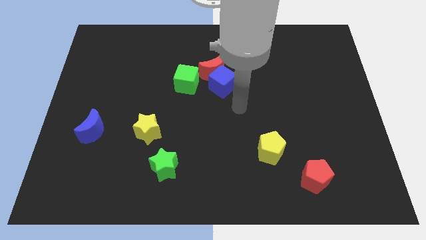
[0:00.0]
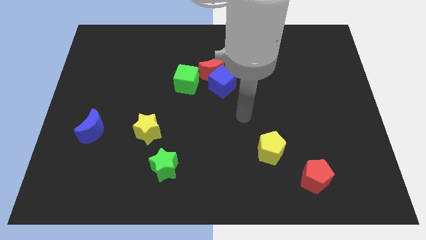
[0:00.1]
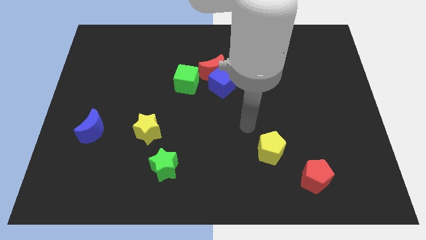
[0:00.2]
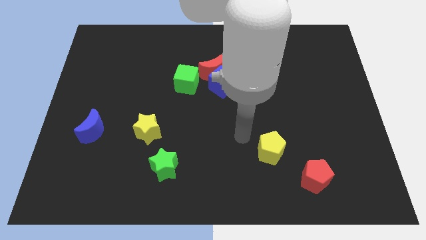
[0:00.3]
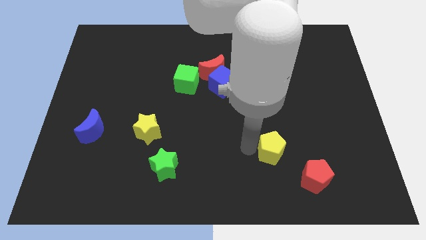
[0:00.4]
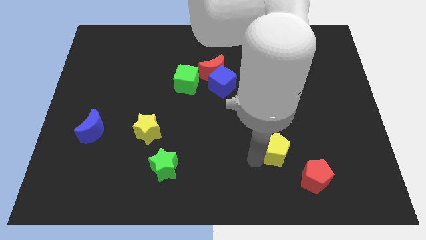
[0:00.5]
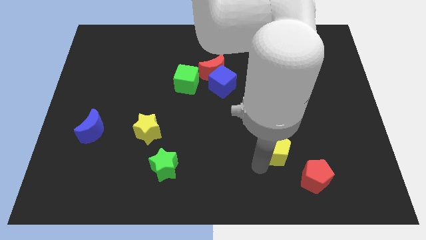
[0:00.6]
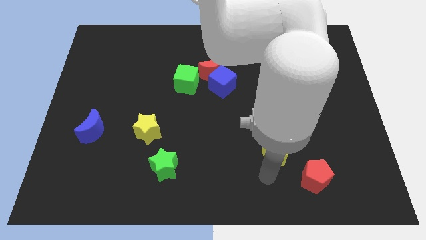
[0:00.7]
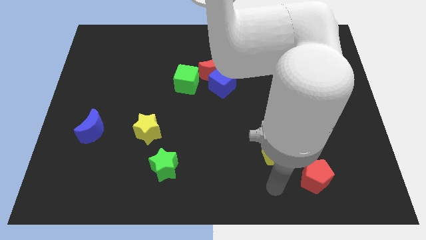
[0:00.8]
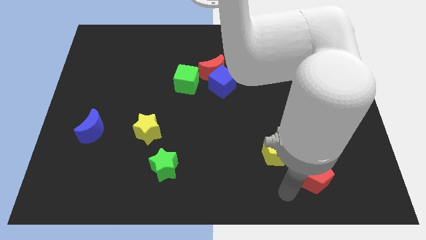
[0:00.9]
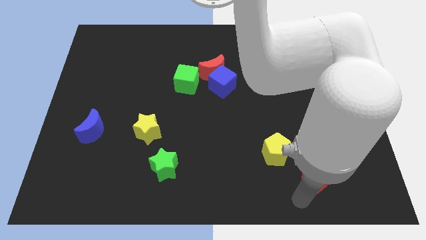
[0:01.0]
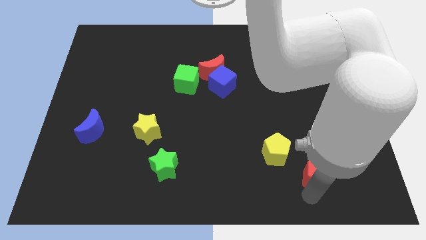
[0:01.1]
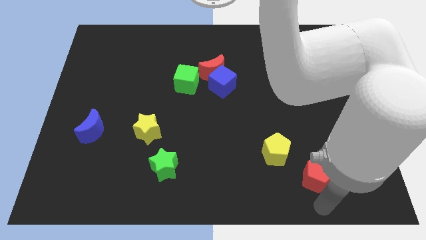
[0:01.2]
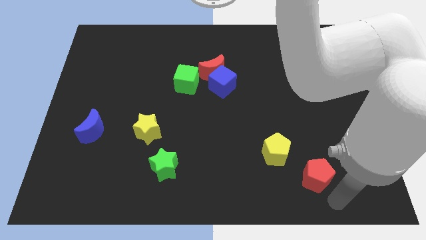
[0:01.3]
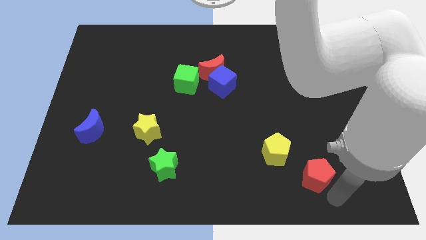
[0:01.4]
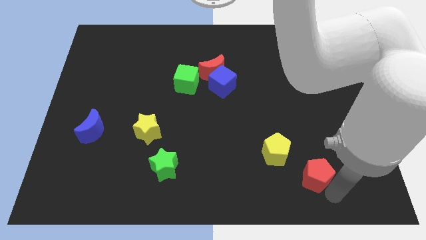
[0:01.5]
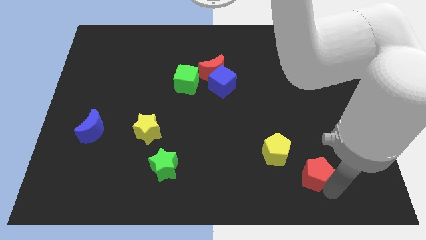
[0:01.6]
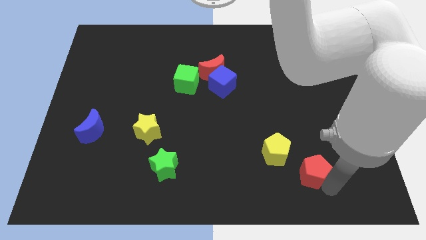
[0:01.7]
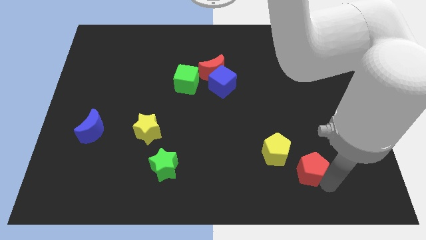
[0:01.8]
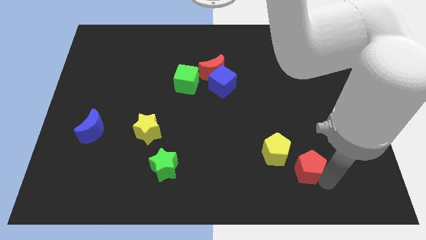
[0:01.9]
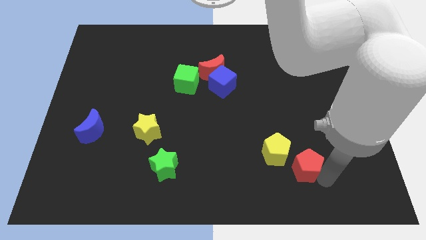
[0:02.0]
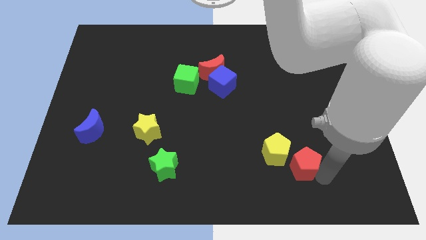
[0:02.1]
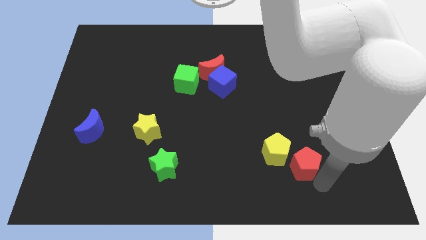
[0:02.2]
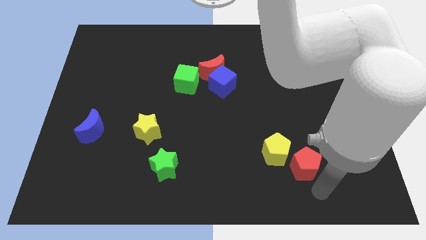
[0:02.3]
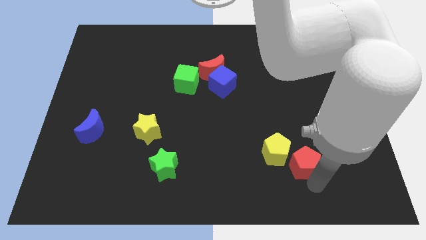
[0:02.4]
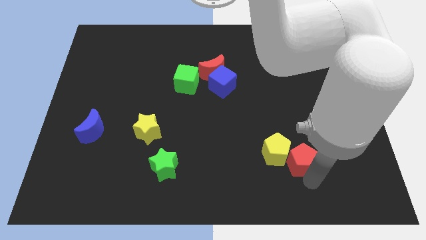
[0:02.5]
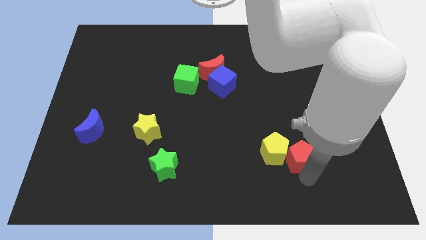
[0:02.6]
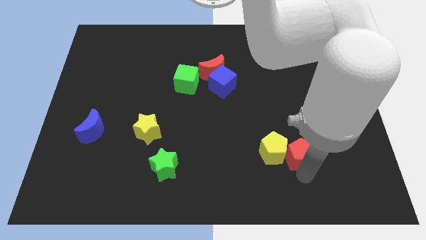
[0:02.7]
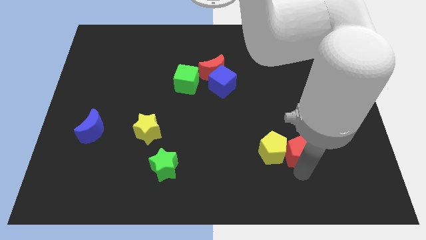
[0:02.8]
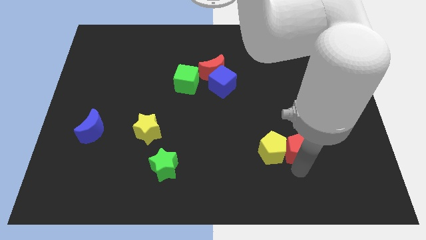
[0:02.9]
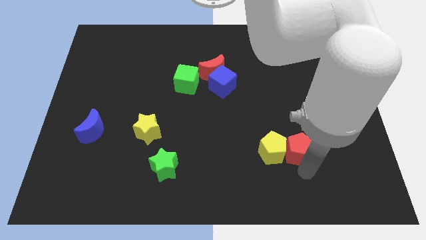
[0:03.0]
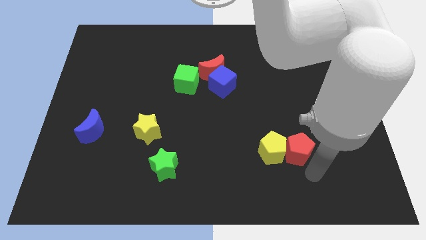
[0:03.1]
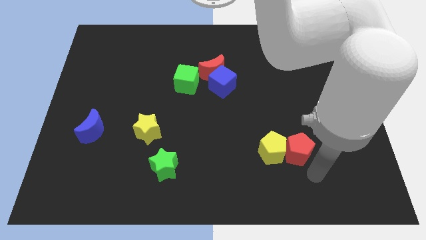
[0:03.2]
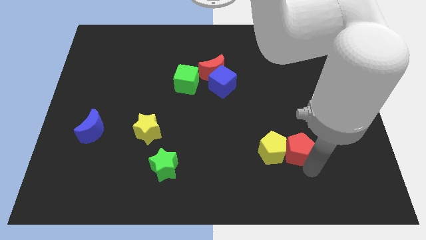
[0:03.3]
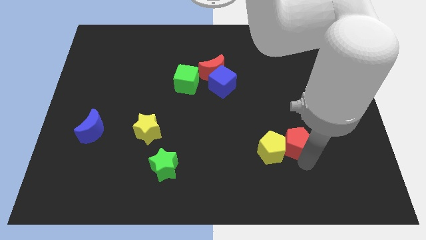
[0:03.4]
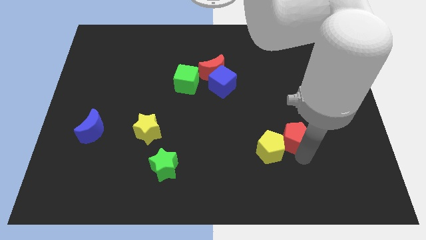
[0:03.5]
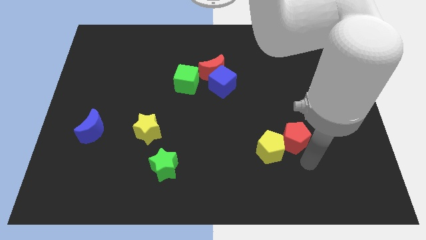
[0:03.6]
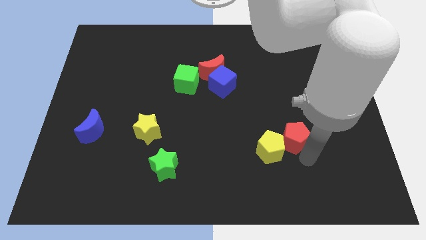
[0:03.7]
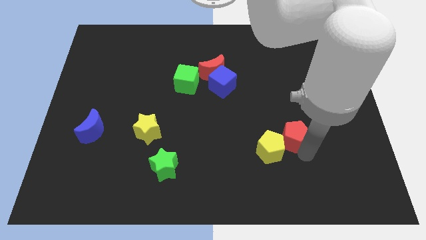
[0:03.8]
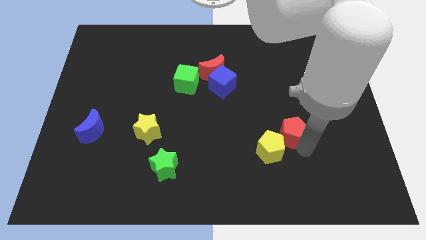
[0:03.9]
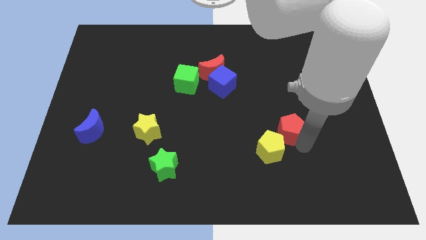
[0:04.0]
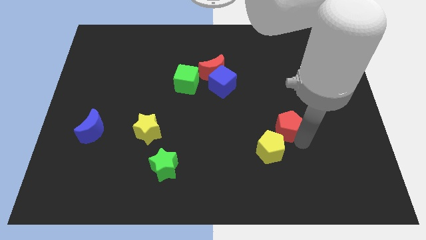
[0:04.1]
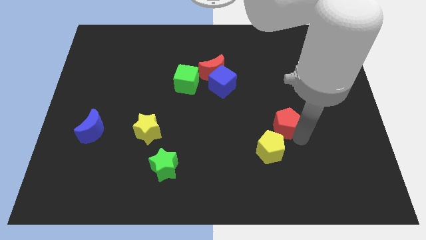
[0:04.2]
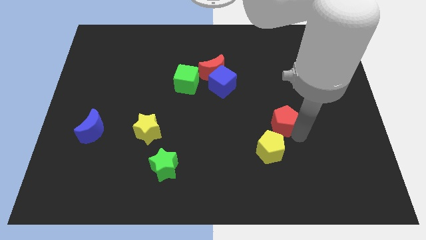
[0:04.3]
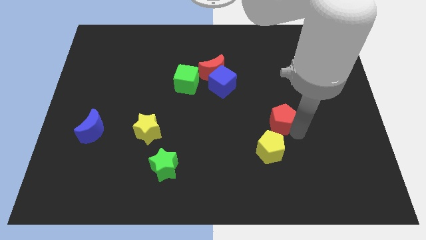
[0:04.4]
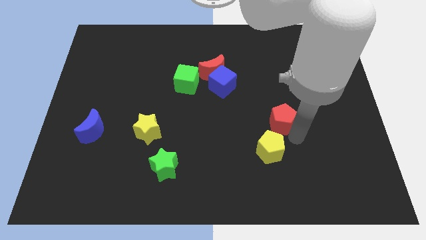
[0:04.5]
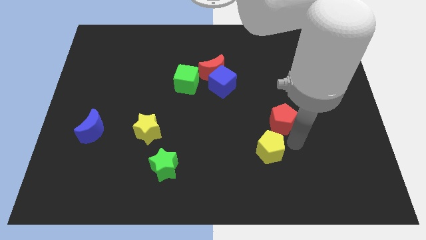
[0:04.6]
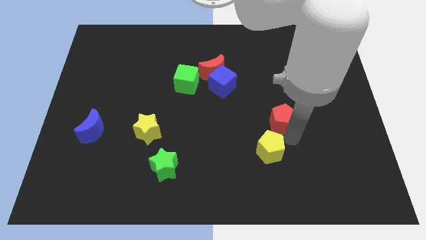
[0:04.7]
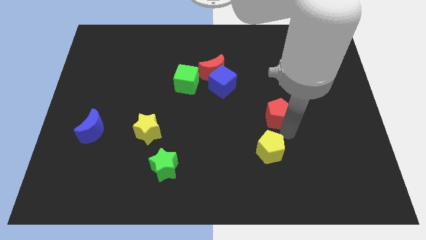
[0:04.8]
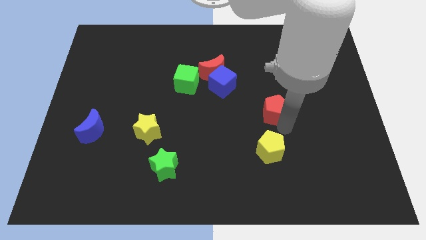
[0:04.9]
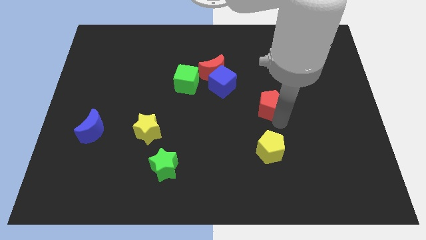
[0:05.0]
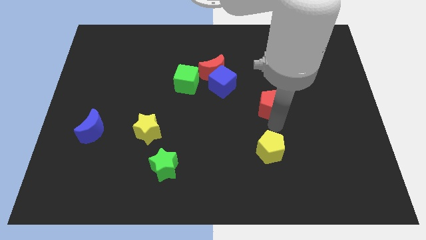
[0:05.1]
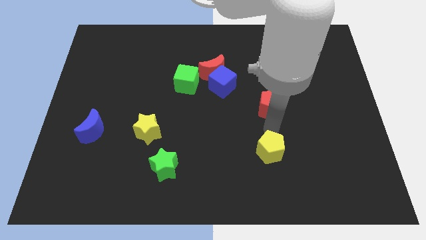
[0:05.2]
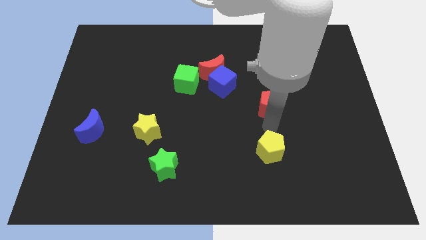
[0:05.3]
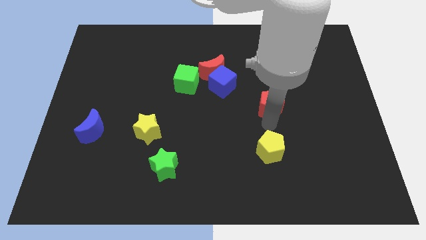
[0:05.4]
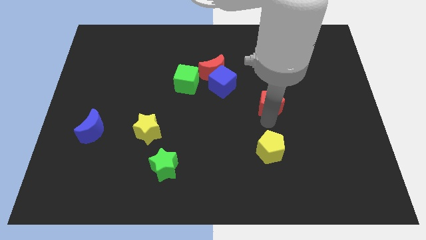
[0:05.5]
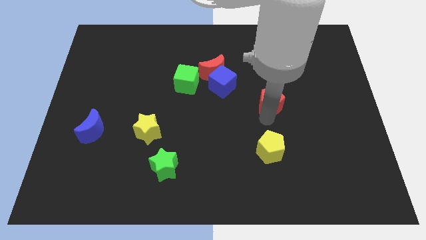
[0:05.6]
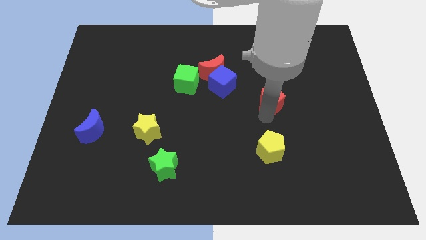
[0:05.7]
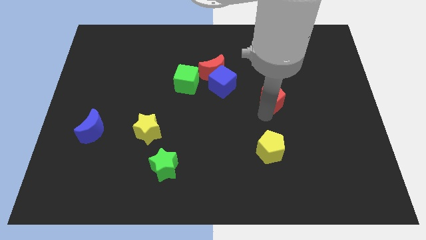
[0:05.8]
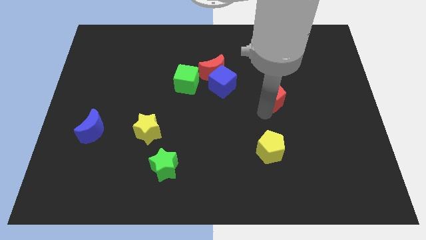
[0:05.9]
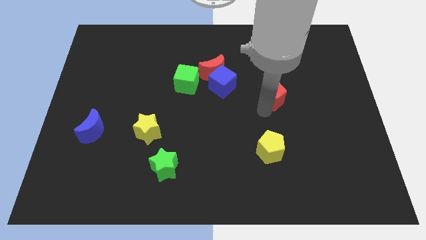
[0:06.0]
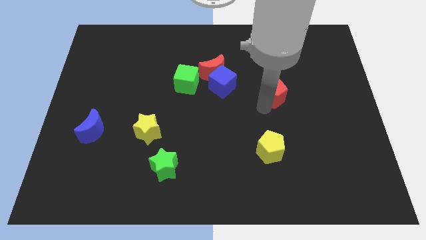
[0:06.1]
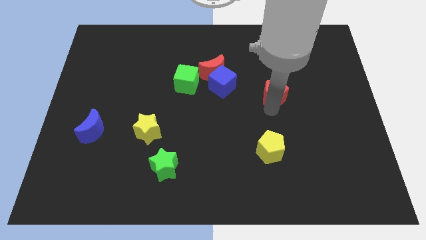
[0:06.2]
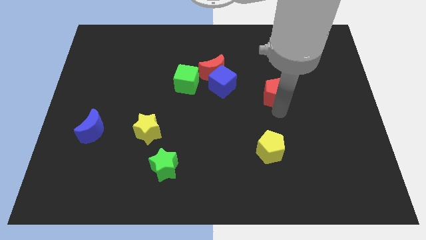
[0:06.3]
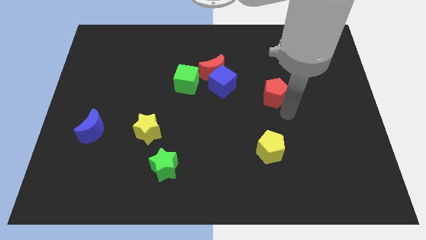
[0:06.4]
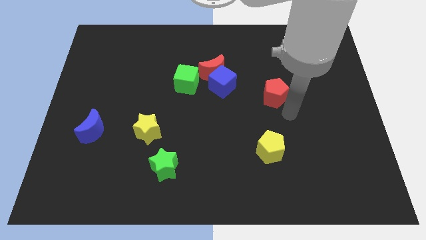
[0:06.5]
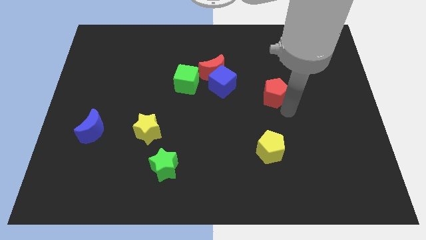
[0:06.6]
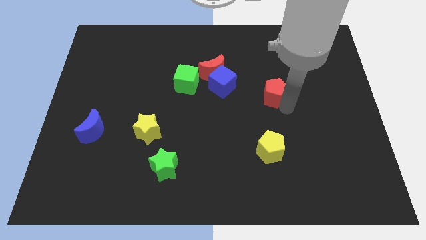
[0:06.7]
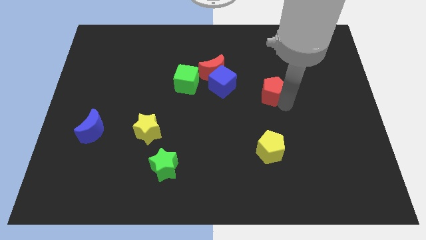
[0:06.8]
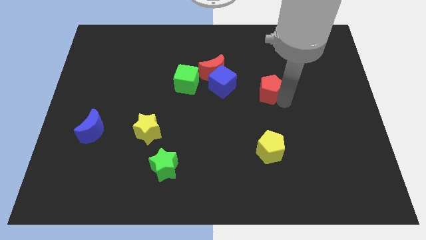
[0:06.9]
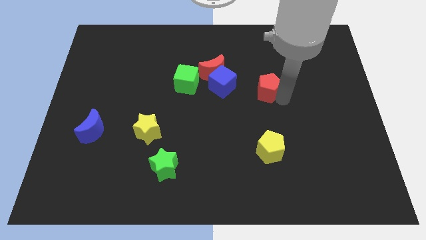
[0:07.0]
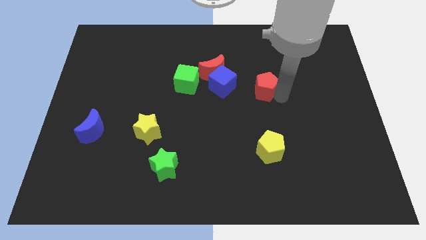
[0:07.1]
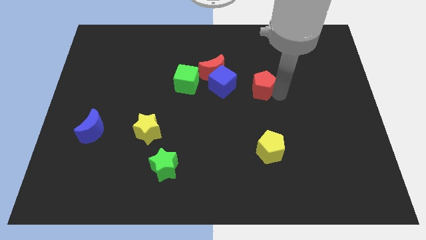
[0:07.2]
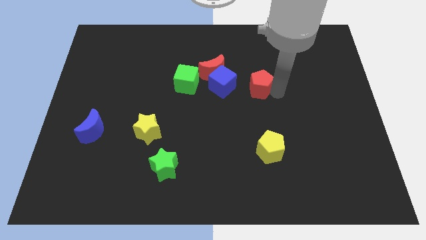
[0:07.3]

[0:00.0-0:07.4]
slide the red pentagon to the right side of the red moon

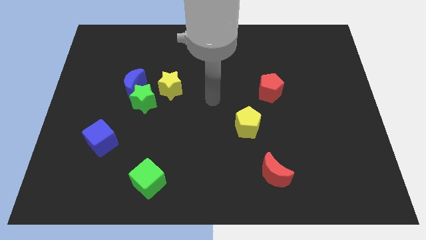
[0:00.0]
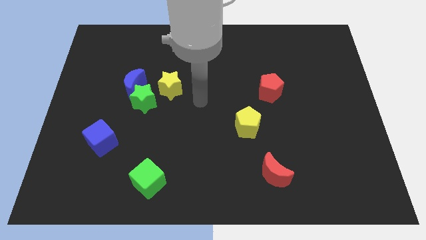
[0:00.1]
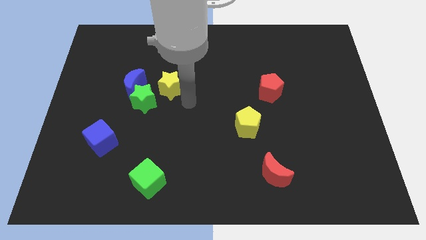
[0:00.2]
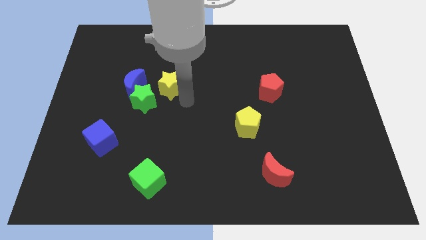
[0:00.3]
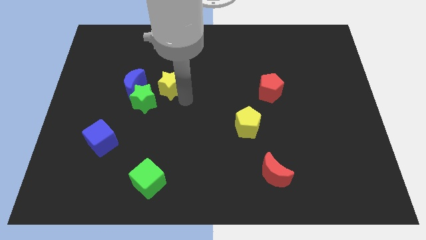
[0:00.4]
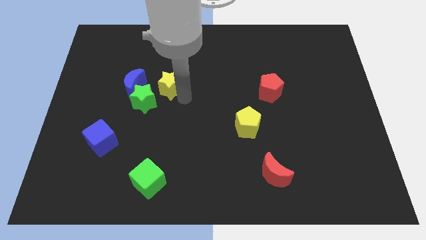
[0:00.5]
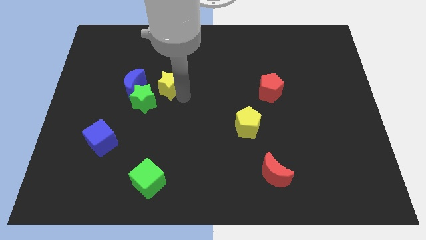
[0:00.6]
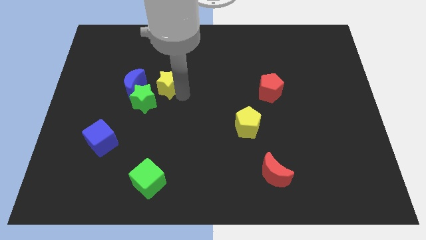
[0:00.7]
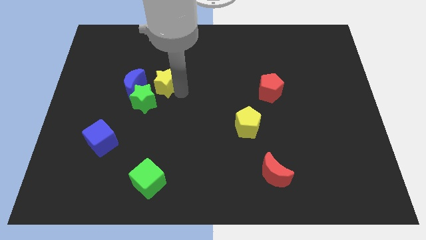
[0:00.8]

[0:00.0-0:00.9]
put the yellow star to the top of the green star
